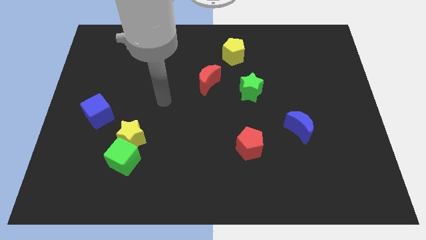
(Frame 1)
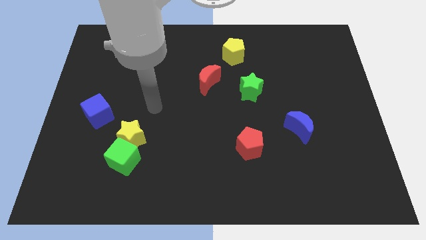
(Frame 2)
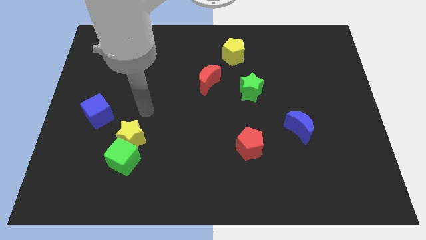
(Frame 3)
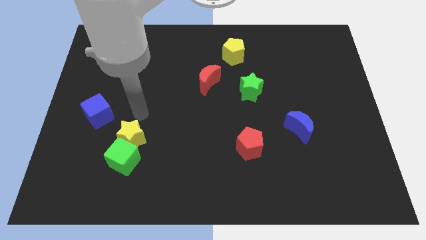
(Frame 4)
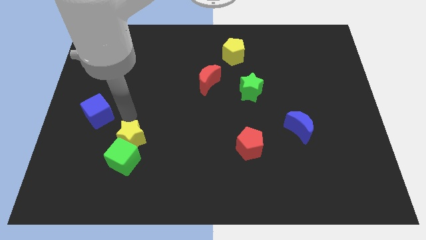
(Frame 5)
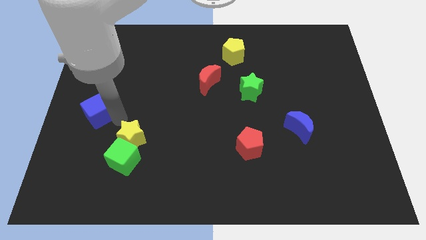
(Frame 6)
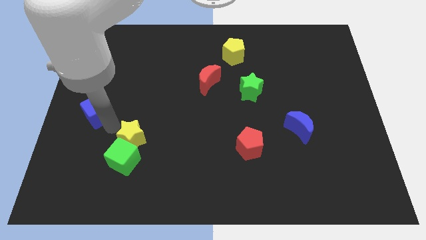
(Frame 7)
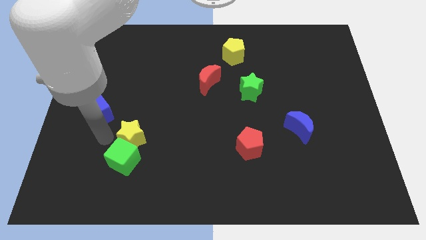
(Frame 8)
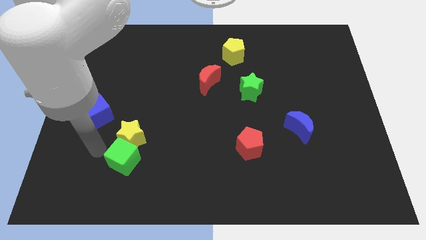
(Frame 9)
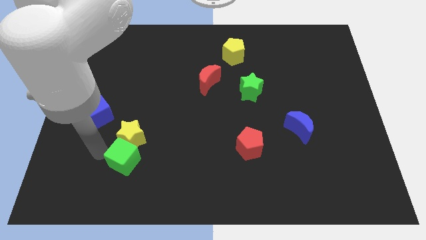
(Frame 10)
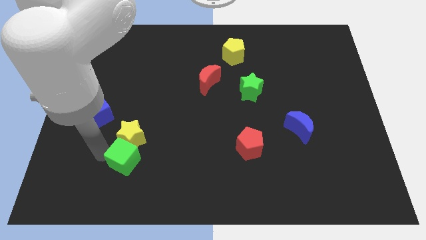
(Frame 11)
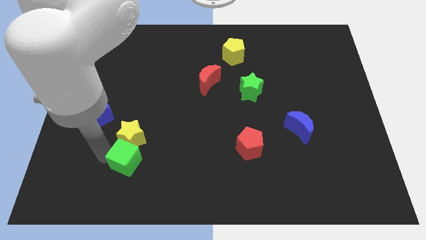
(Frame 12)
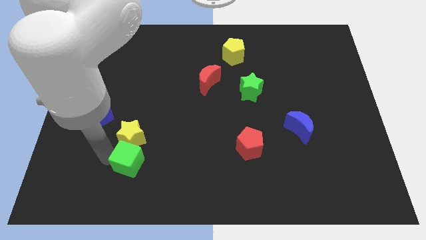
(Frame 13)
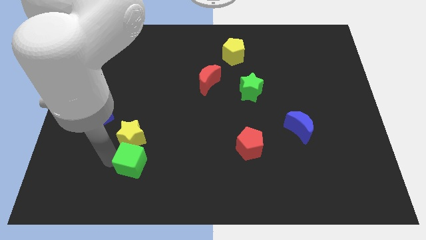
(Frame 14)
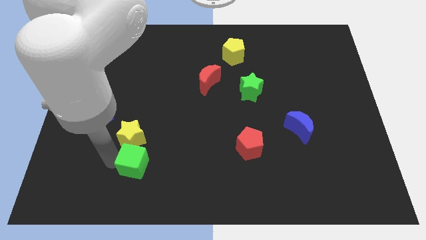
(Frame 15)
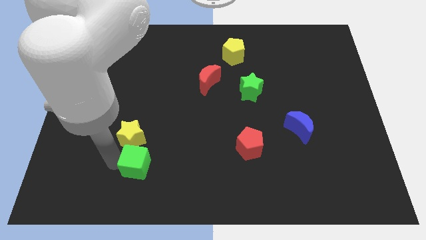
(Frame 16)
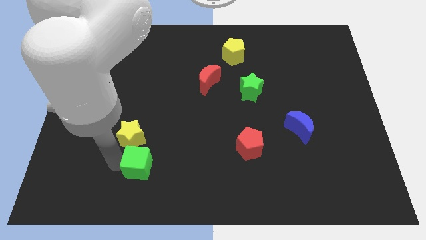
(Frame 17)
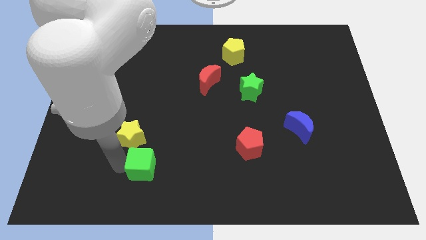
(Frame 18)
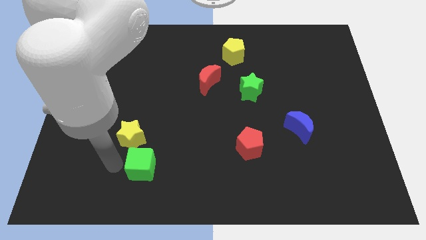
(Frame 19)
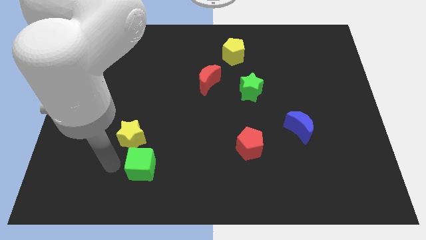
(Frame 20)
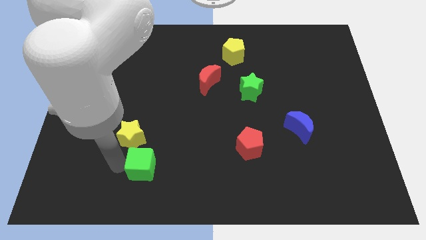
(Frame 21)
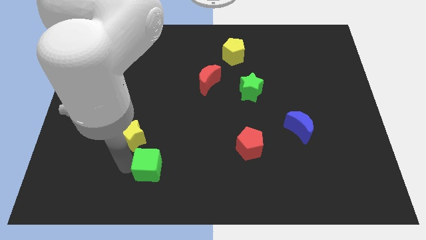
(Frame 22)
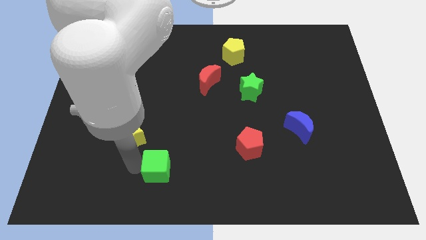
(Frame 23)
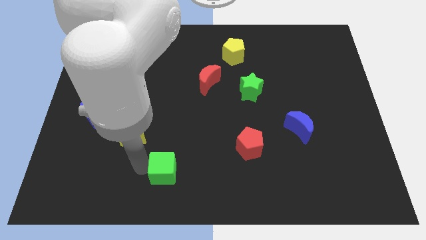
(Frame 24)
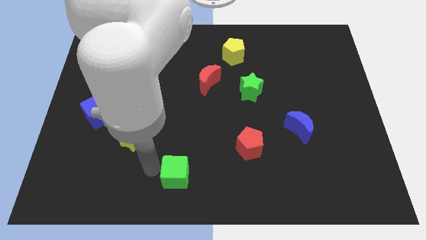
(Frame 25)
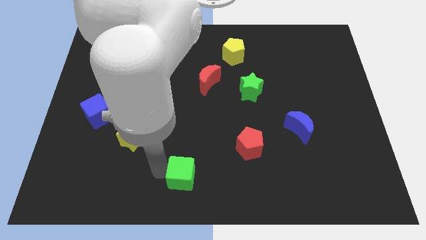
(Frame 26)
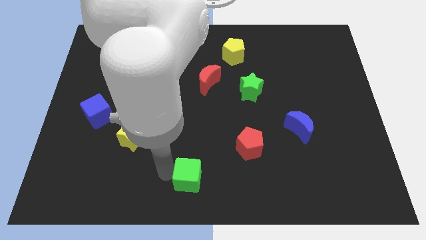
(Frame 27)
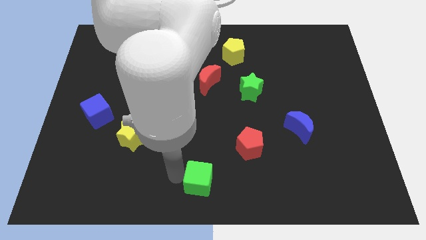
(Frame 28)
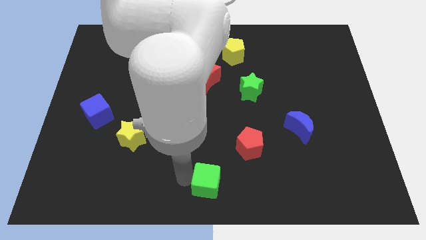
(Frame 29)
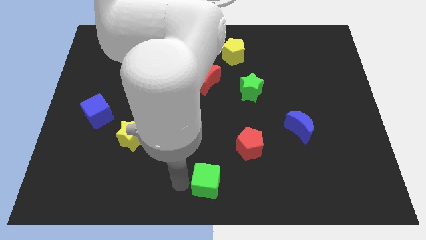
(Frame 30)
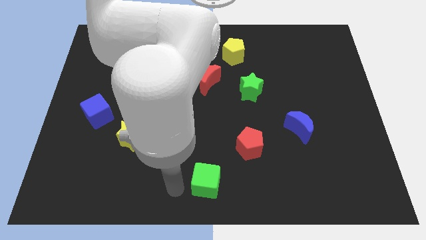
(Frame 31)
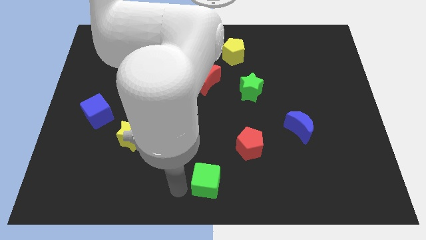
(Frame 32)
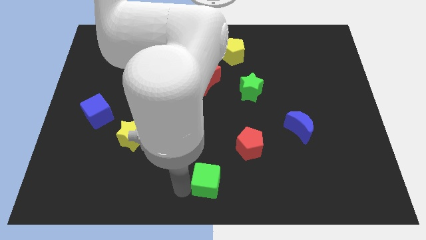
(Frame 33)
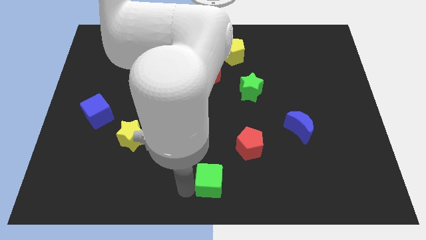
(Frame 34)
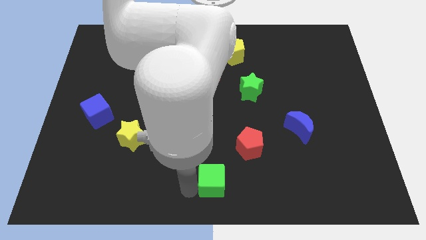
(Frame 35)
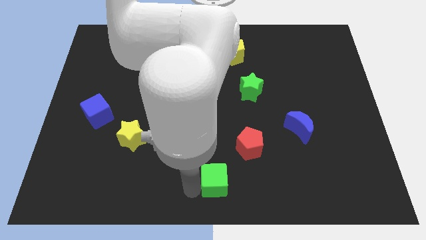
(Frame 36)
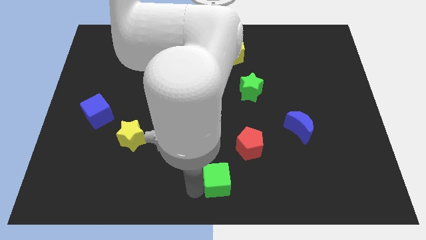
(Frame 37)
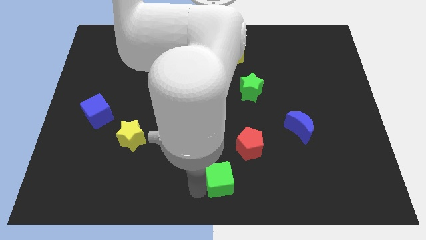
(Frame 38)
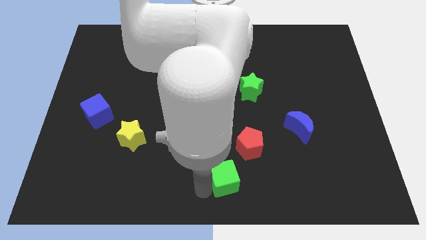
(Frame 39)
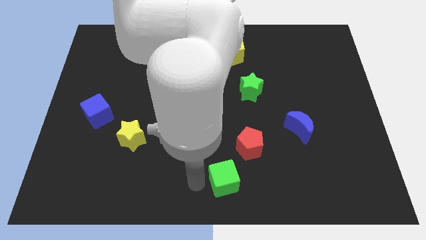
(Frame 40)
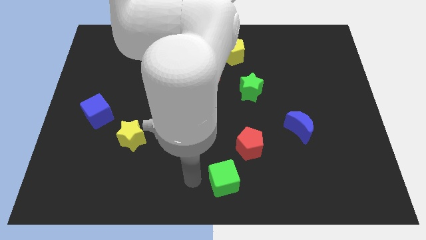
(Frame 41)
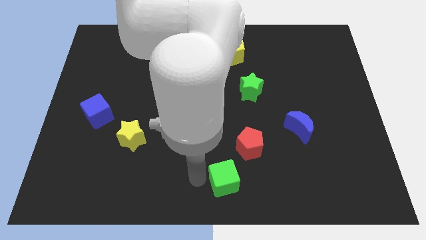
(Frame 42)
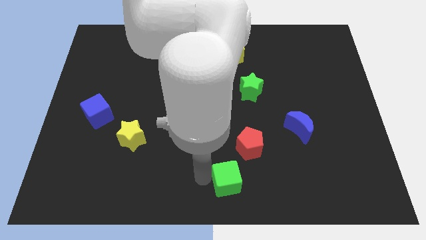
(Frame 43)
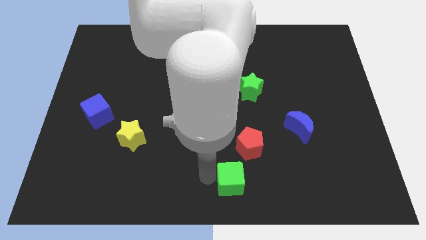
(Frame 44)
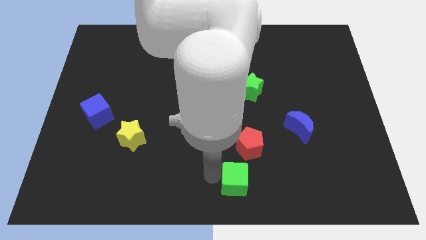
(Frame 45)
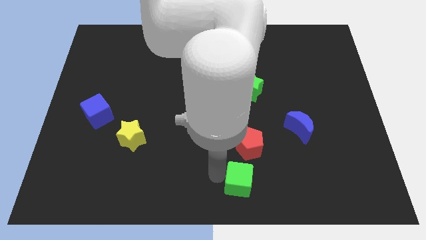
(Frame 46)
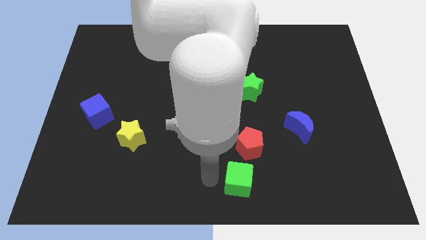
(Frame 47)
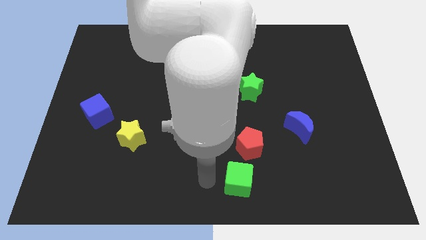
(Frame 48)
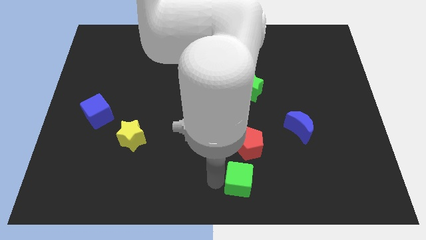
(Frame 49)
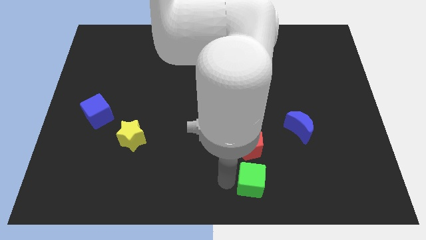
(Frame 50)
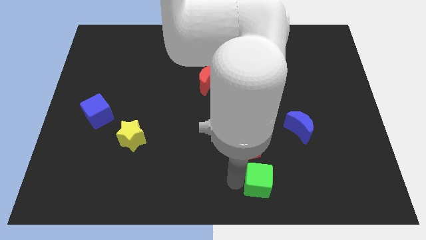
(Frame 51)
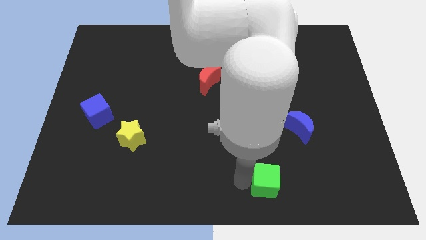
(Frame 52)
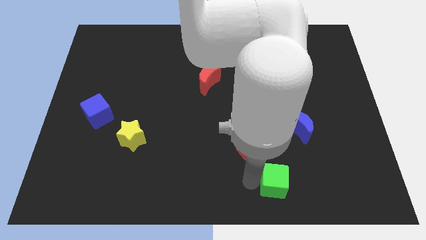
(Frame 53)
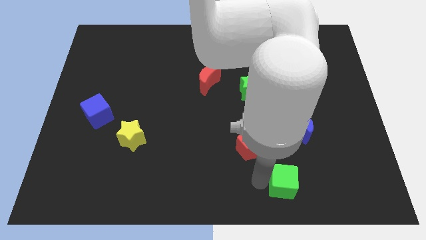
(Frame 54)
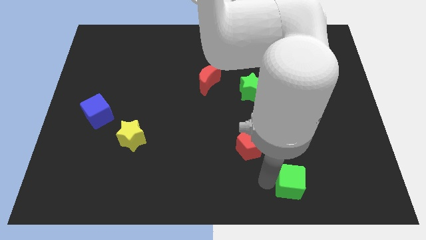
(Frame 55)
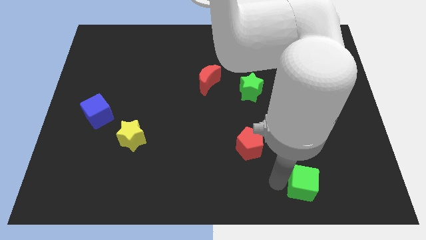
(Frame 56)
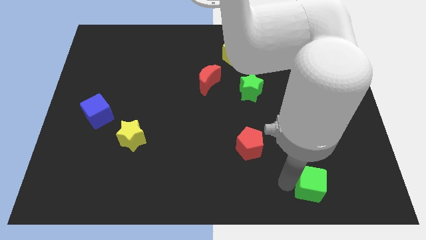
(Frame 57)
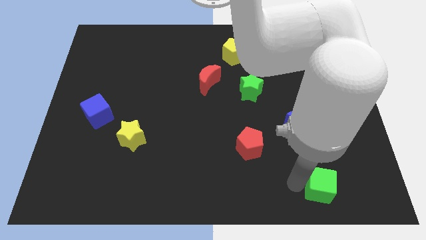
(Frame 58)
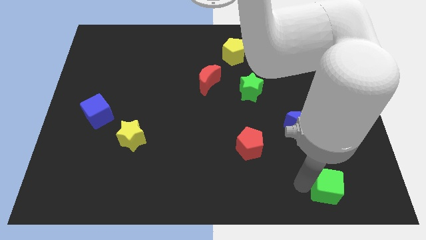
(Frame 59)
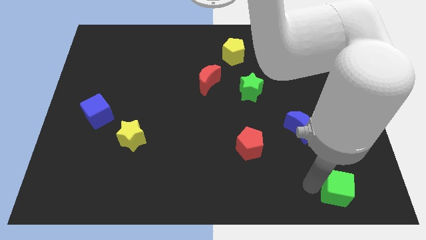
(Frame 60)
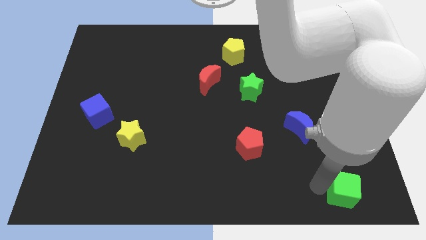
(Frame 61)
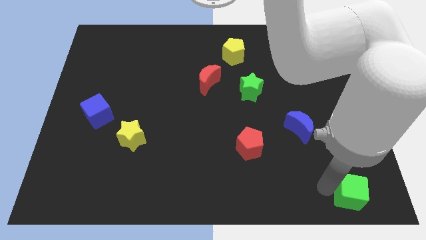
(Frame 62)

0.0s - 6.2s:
move the green cube to the lower right corner
